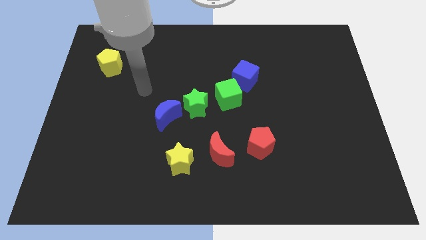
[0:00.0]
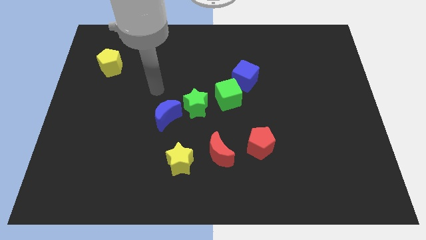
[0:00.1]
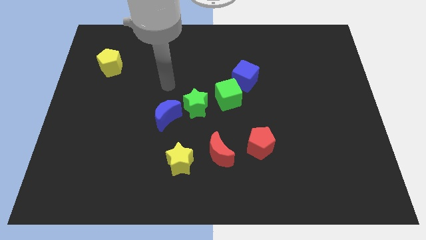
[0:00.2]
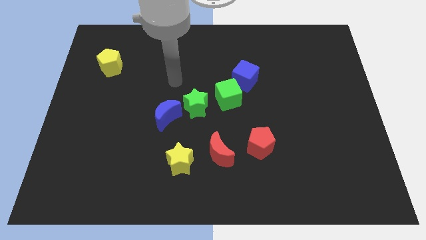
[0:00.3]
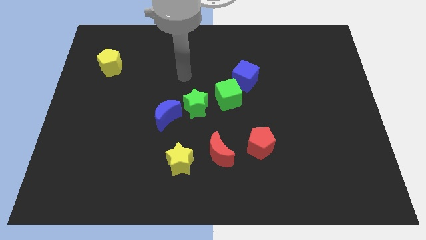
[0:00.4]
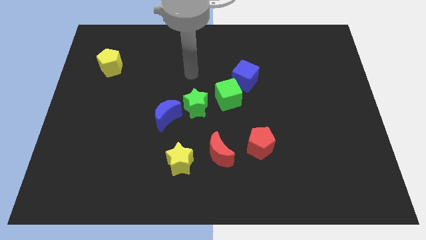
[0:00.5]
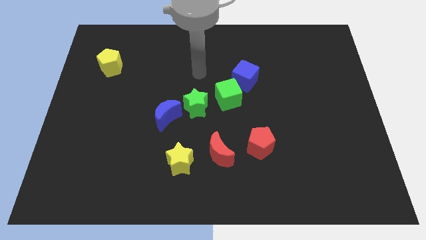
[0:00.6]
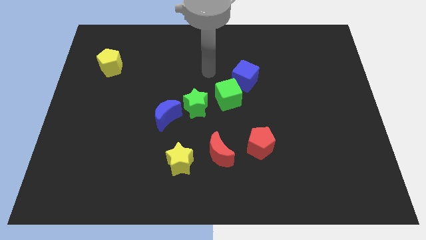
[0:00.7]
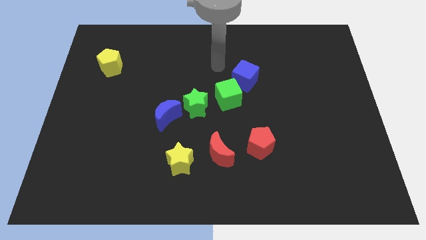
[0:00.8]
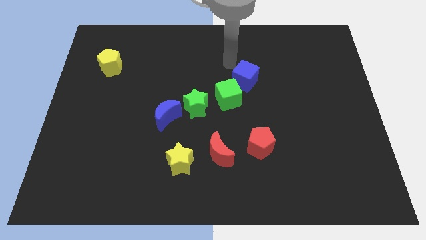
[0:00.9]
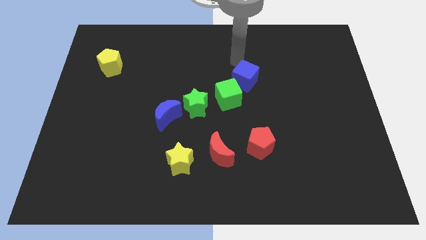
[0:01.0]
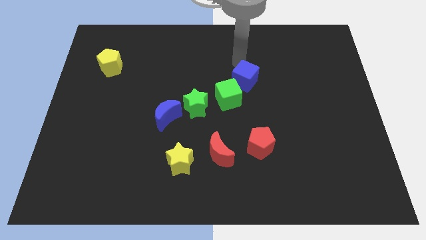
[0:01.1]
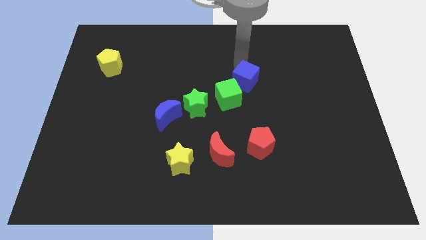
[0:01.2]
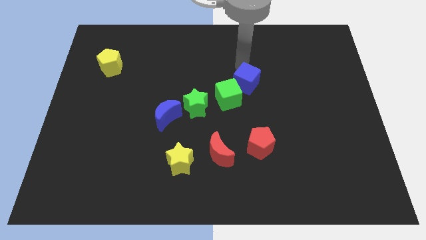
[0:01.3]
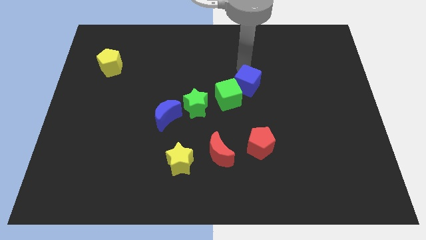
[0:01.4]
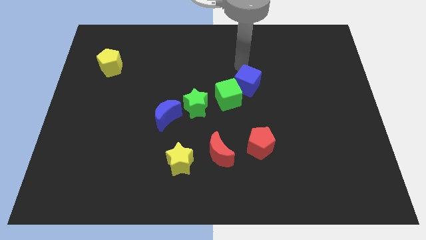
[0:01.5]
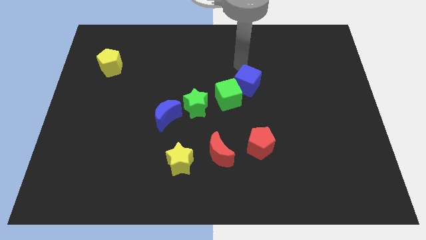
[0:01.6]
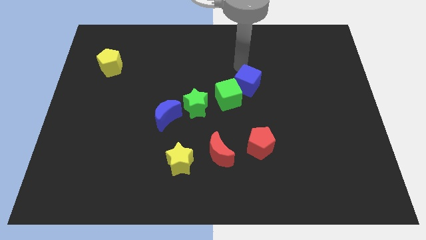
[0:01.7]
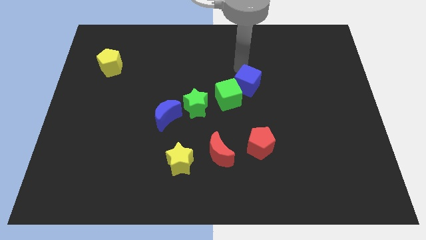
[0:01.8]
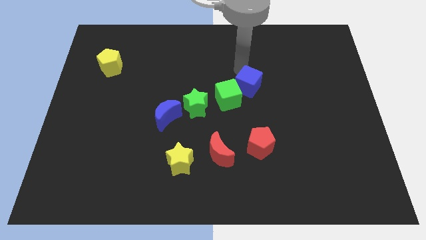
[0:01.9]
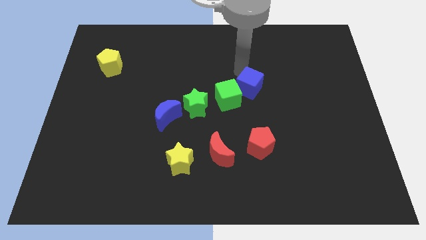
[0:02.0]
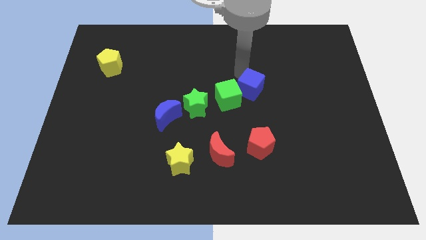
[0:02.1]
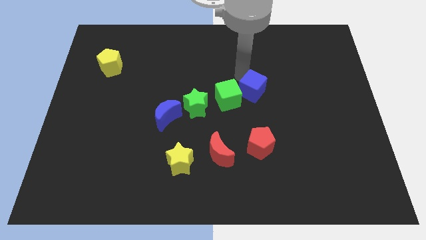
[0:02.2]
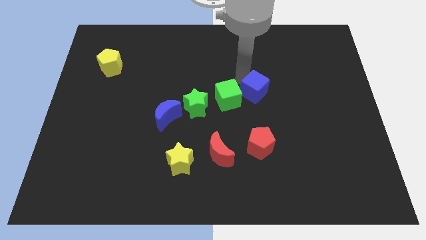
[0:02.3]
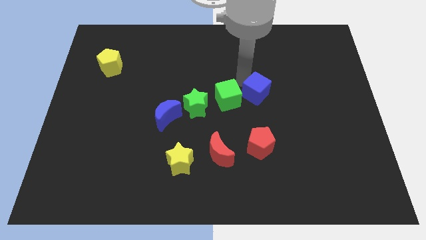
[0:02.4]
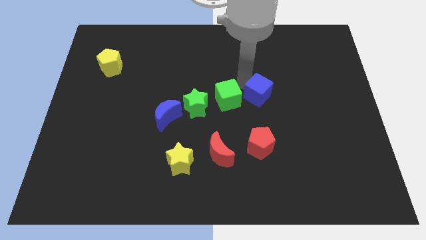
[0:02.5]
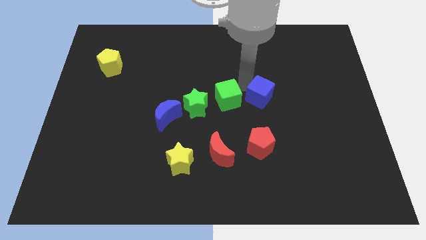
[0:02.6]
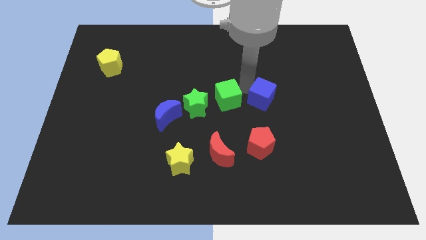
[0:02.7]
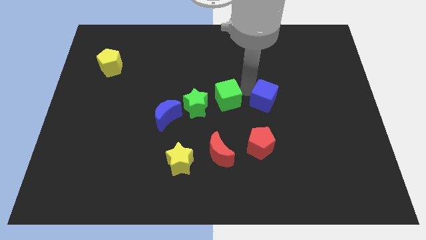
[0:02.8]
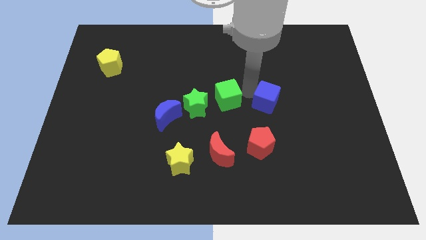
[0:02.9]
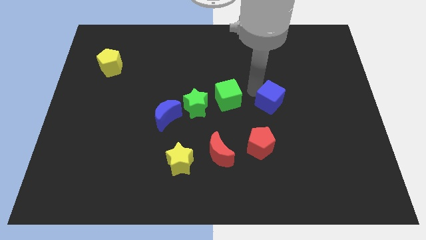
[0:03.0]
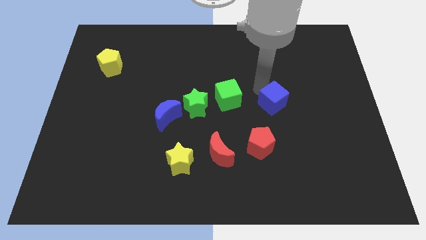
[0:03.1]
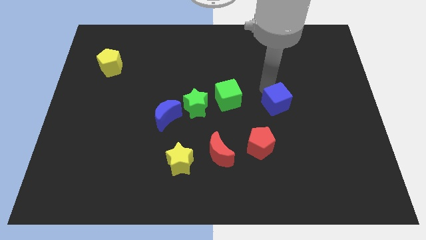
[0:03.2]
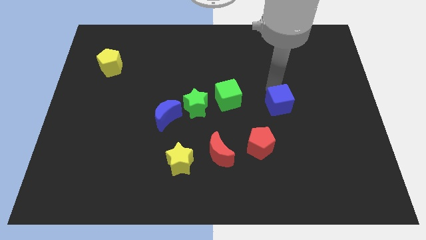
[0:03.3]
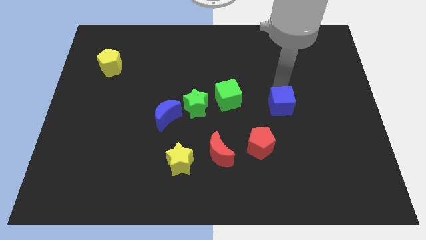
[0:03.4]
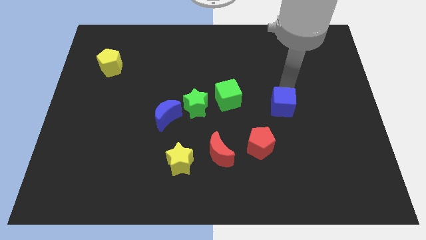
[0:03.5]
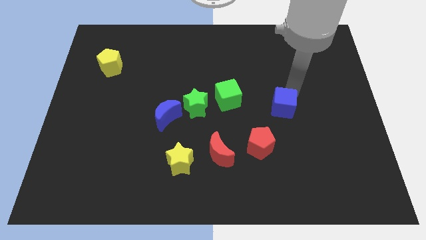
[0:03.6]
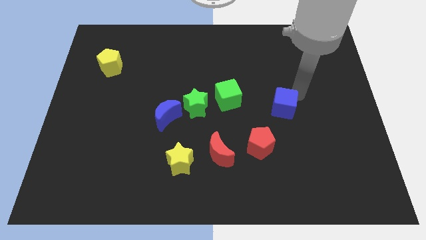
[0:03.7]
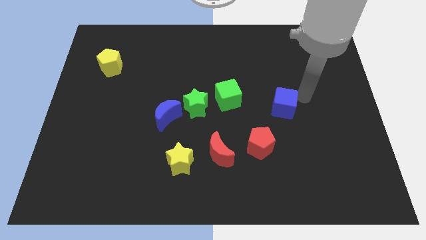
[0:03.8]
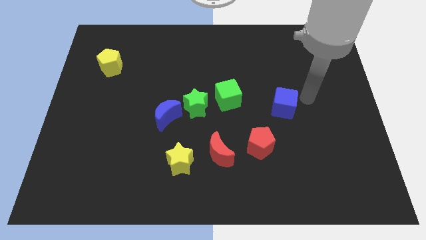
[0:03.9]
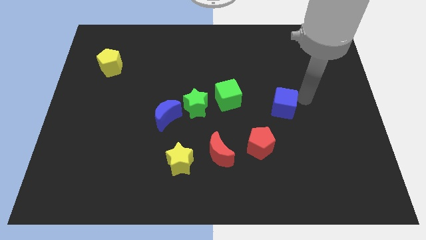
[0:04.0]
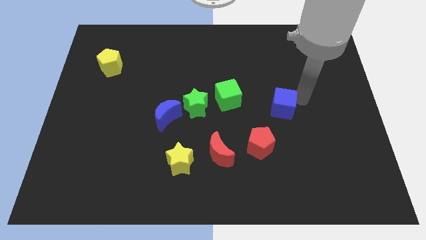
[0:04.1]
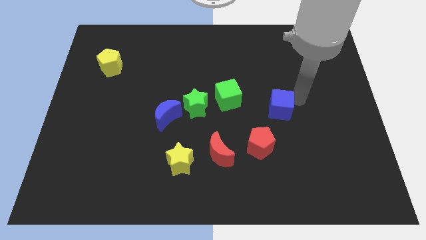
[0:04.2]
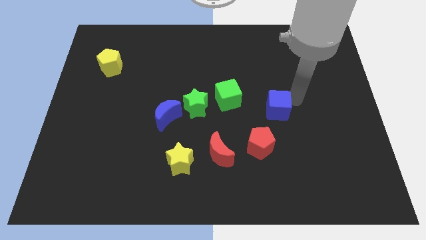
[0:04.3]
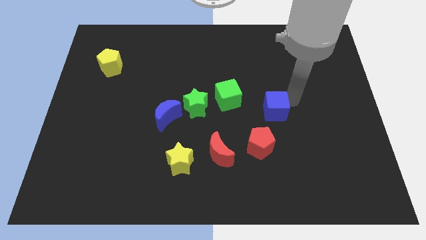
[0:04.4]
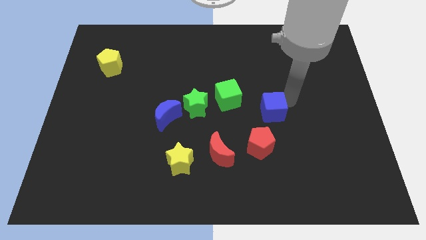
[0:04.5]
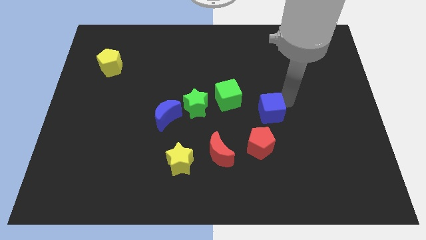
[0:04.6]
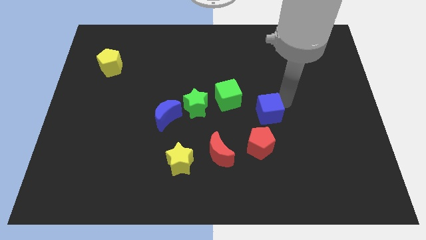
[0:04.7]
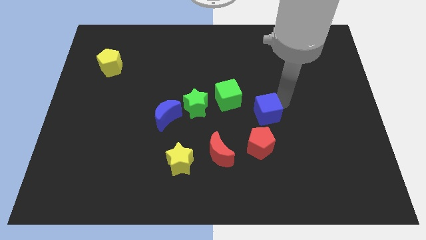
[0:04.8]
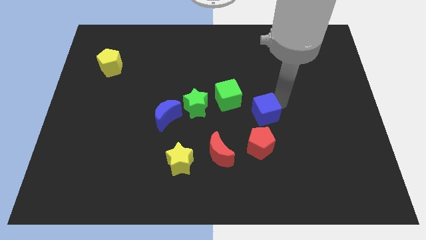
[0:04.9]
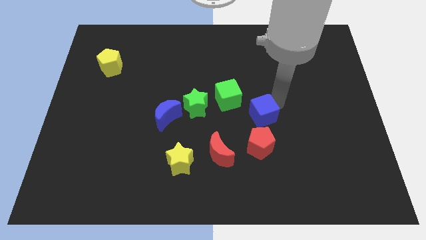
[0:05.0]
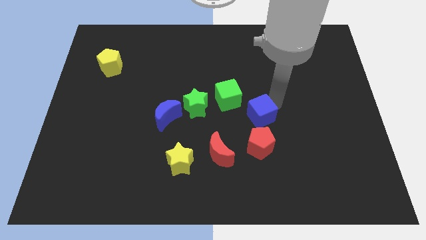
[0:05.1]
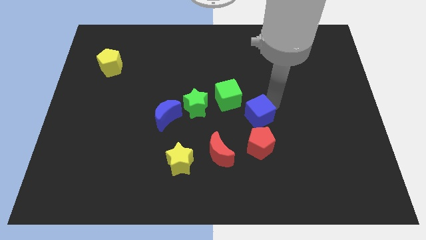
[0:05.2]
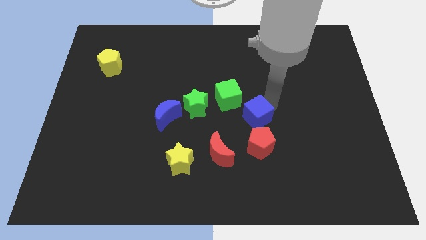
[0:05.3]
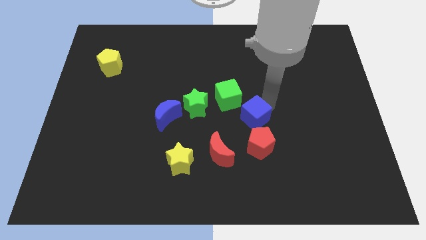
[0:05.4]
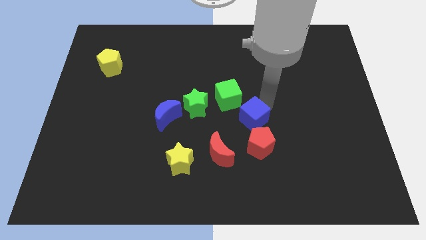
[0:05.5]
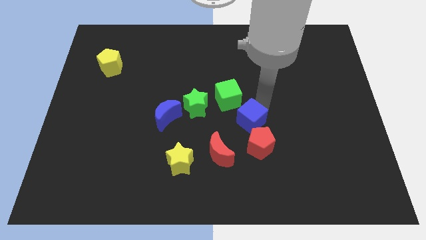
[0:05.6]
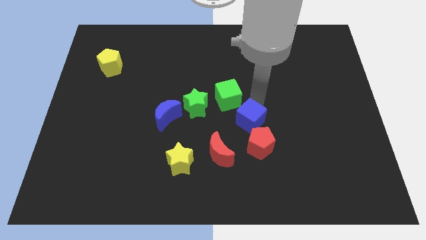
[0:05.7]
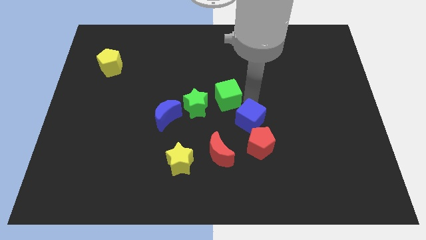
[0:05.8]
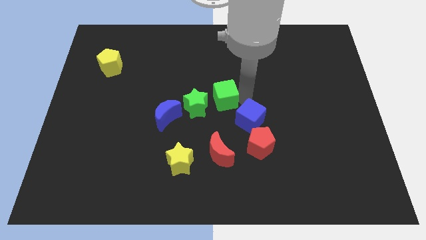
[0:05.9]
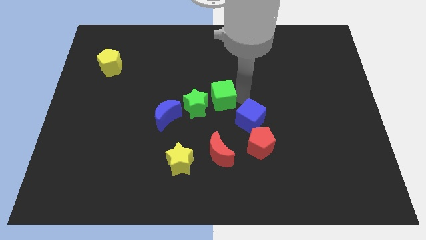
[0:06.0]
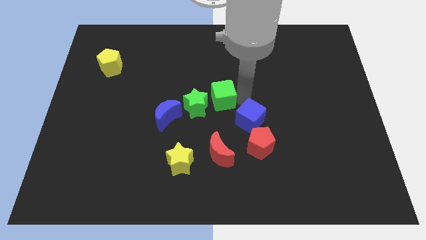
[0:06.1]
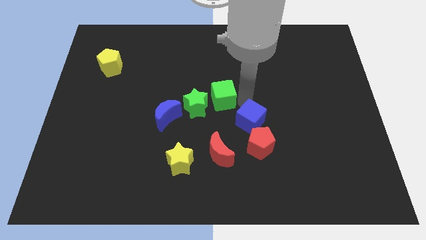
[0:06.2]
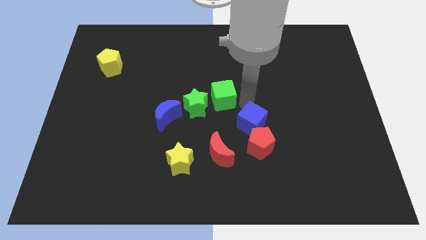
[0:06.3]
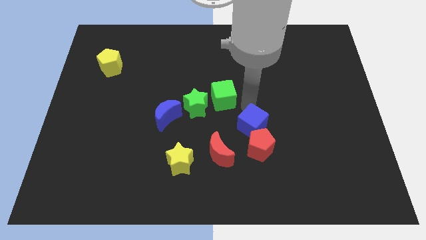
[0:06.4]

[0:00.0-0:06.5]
push the blue cube close to the red pentagon

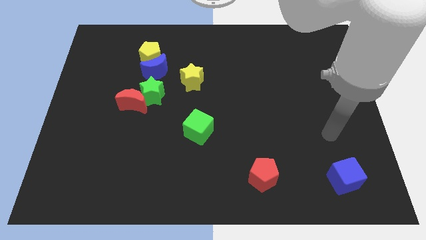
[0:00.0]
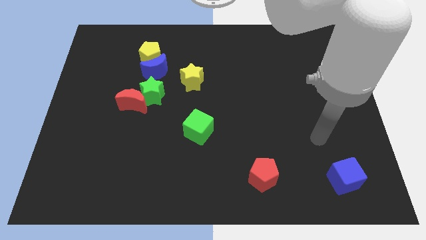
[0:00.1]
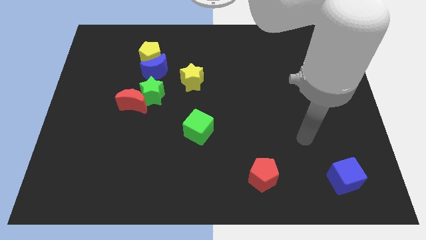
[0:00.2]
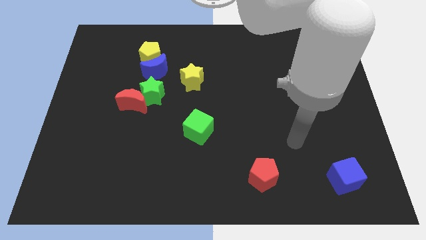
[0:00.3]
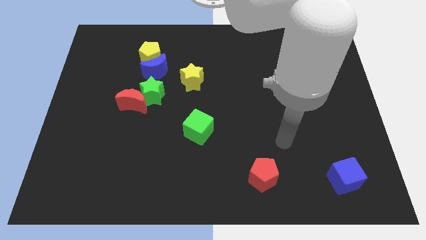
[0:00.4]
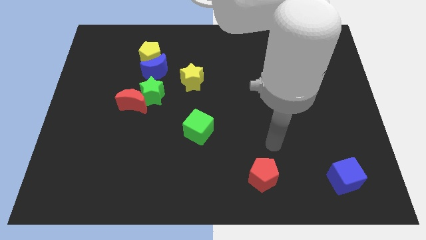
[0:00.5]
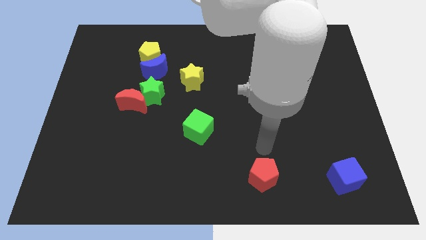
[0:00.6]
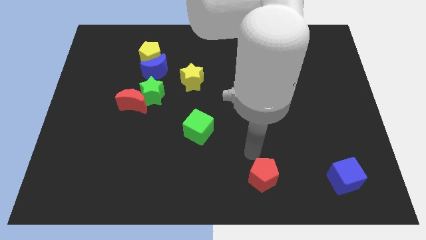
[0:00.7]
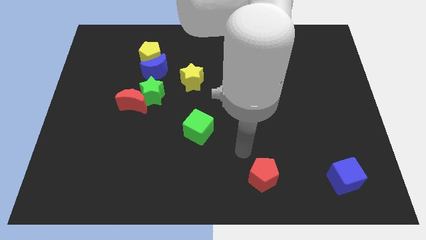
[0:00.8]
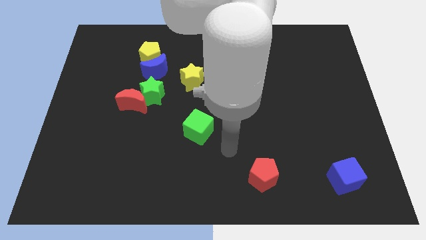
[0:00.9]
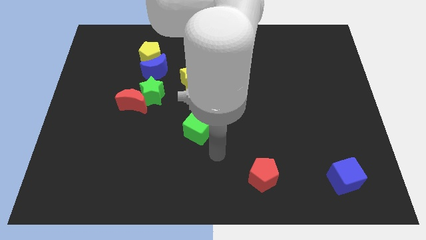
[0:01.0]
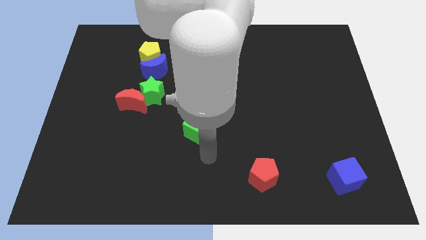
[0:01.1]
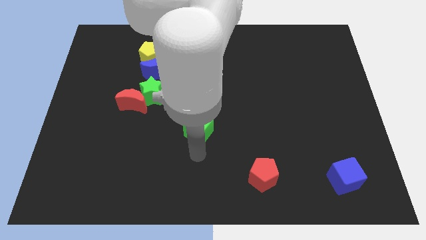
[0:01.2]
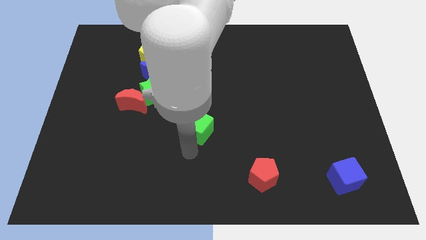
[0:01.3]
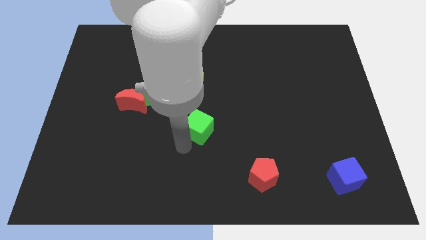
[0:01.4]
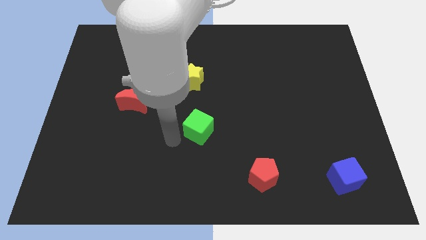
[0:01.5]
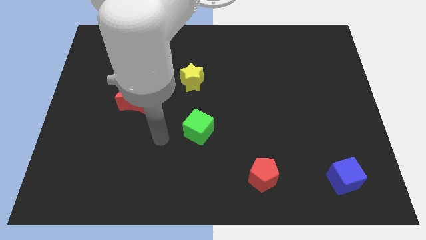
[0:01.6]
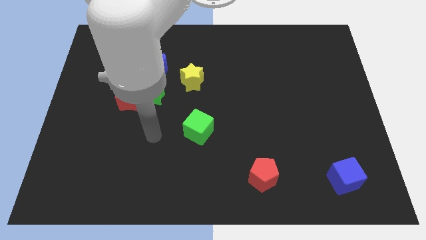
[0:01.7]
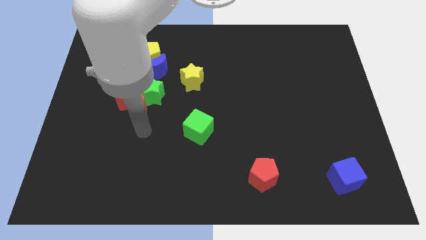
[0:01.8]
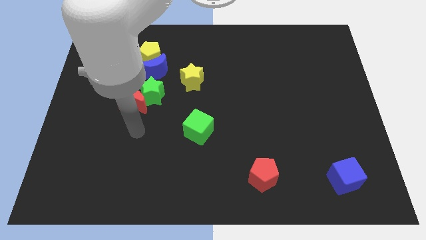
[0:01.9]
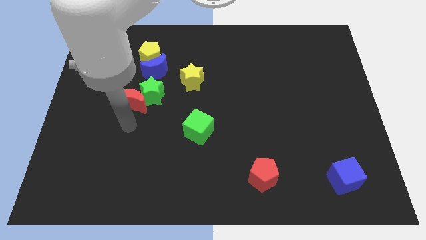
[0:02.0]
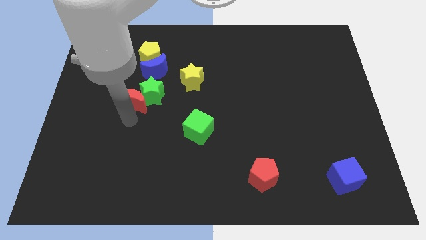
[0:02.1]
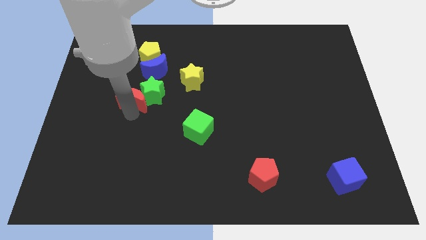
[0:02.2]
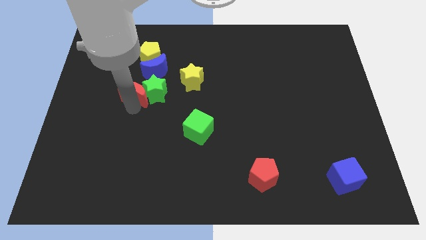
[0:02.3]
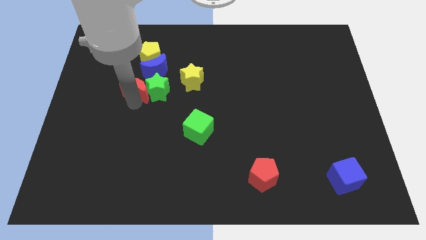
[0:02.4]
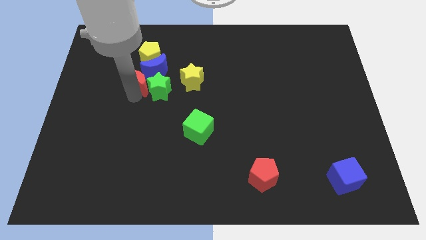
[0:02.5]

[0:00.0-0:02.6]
slide the red moon to the blue moon
